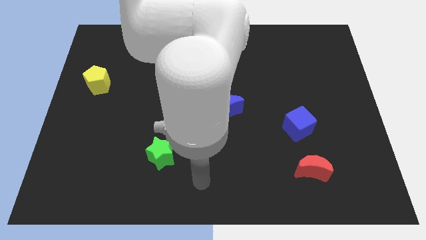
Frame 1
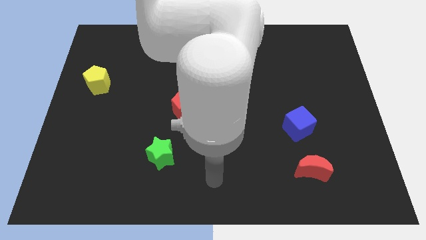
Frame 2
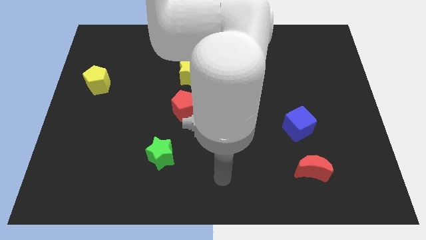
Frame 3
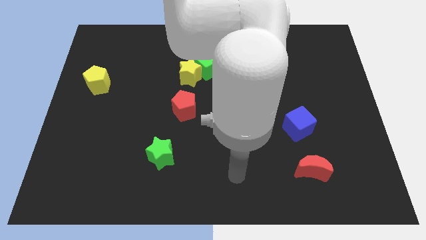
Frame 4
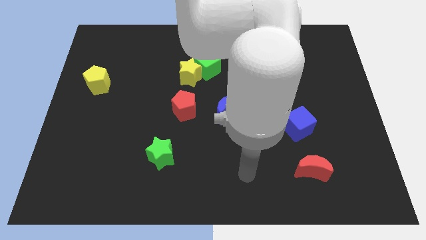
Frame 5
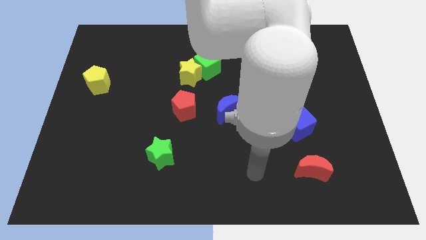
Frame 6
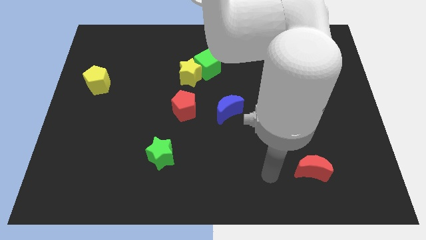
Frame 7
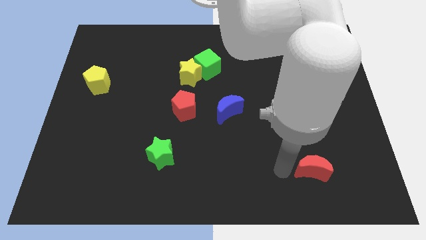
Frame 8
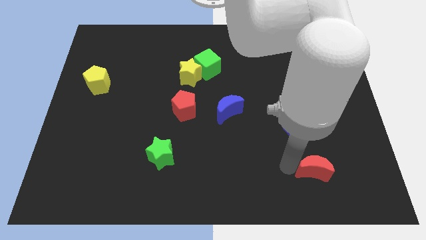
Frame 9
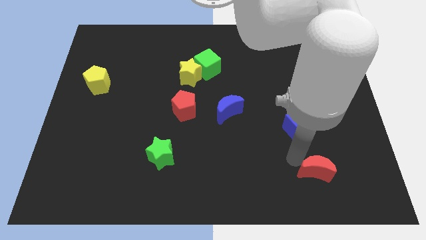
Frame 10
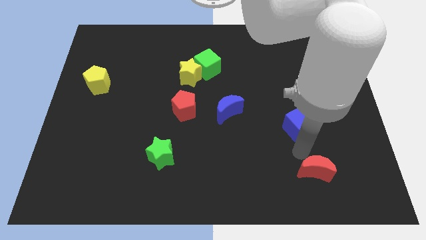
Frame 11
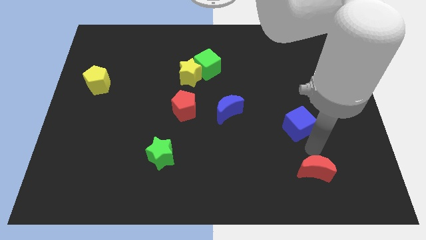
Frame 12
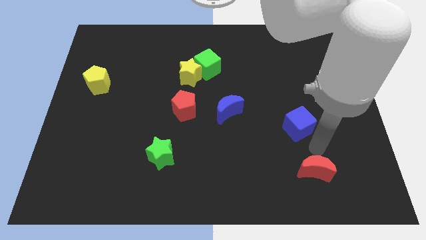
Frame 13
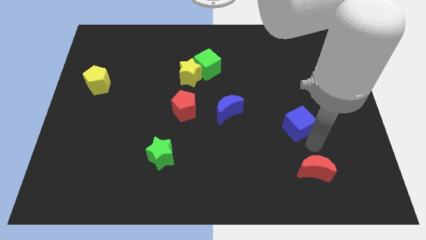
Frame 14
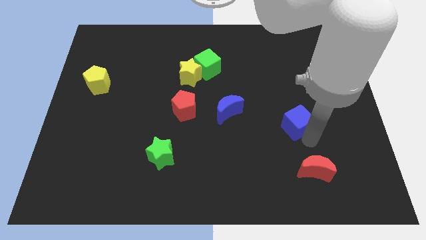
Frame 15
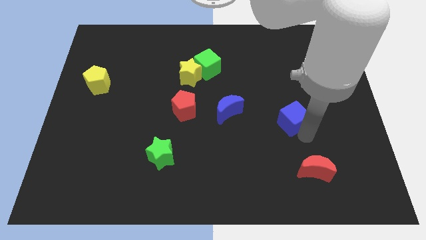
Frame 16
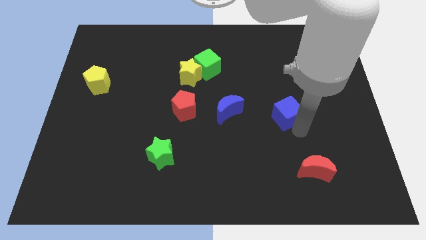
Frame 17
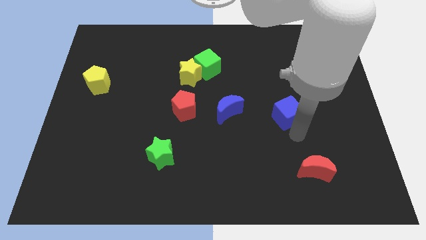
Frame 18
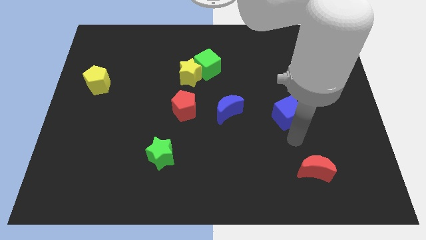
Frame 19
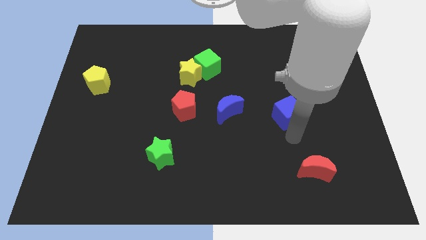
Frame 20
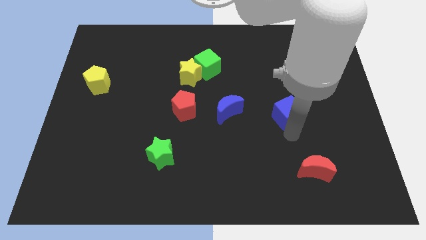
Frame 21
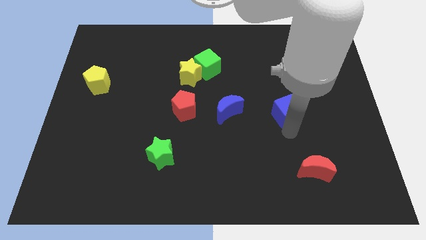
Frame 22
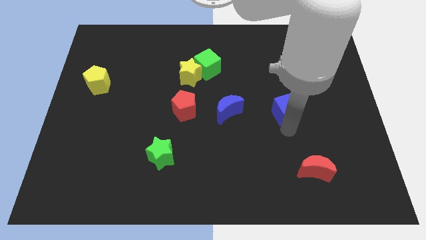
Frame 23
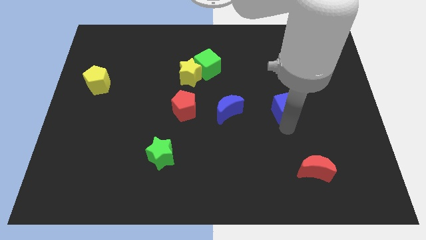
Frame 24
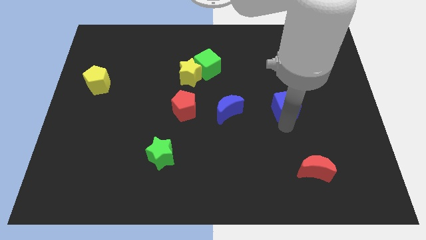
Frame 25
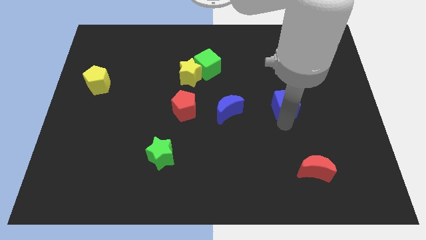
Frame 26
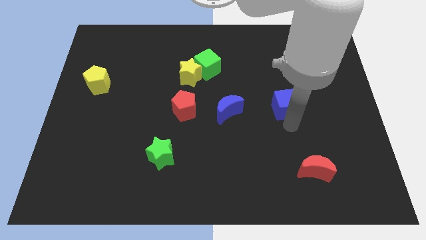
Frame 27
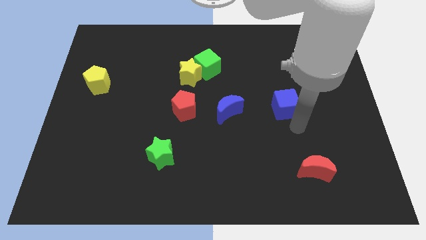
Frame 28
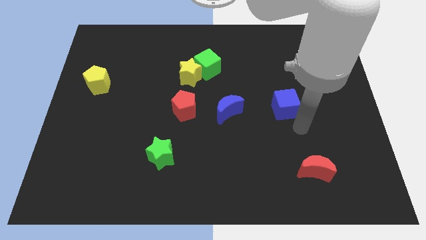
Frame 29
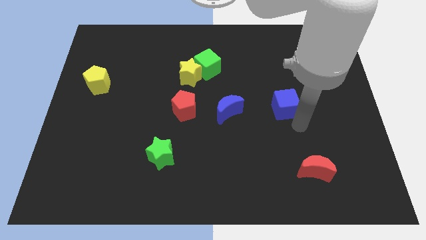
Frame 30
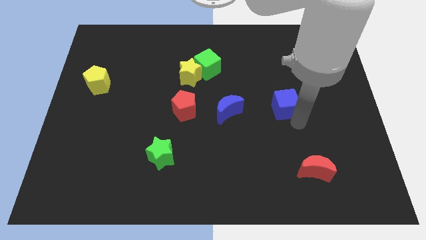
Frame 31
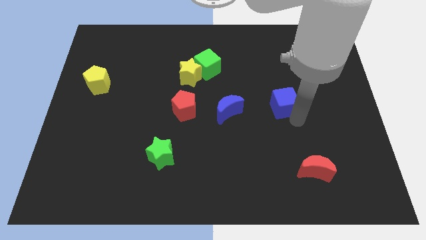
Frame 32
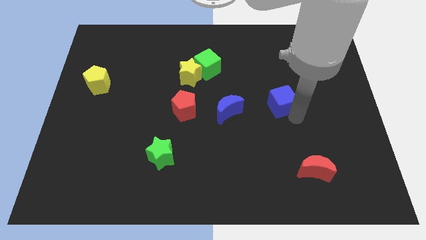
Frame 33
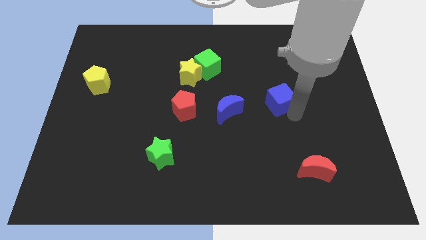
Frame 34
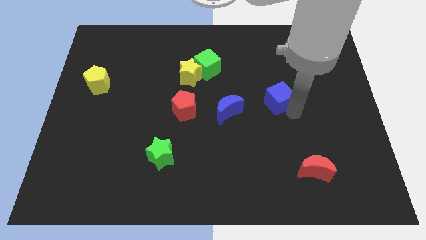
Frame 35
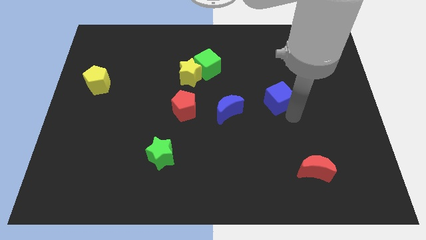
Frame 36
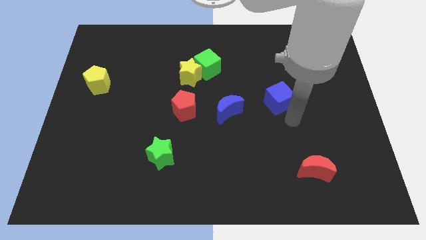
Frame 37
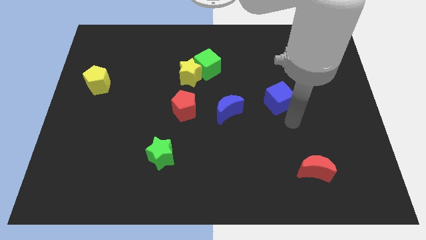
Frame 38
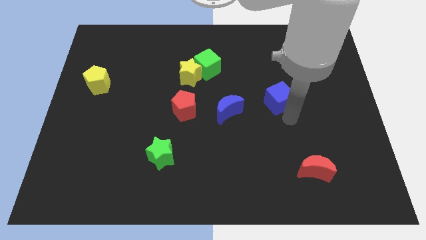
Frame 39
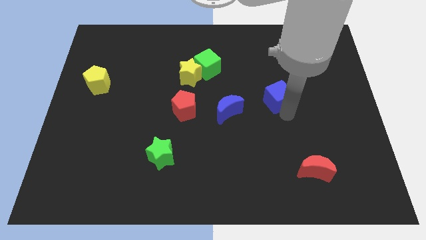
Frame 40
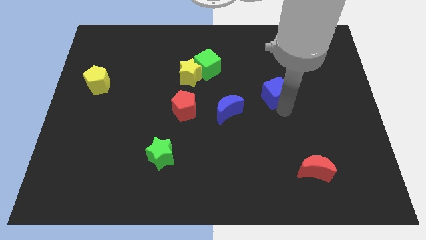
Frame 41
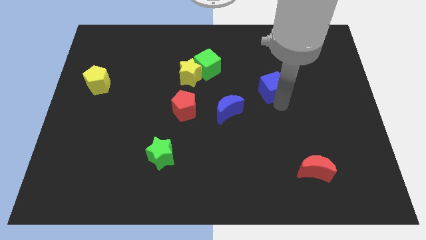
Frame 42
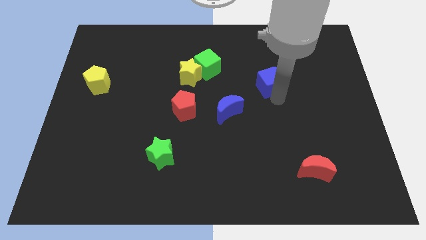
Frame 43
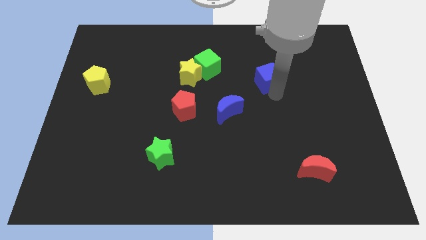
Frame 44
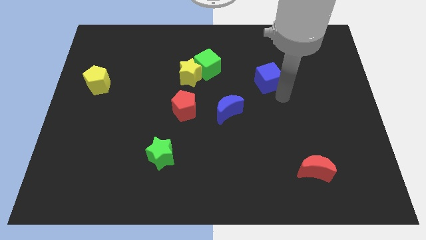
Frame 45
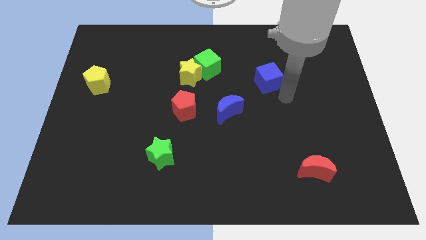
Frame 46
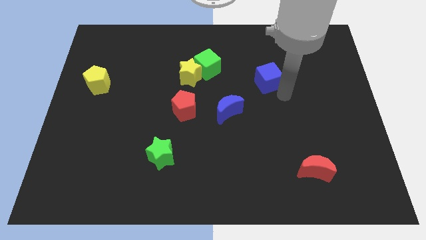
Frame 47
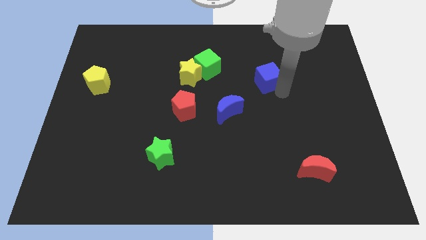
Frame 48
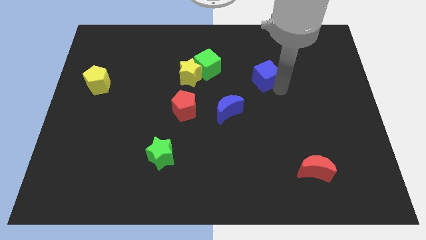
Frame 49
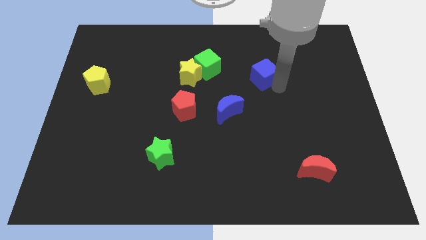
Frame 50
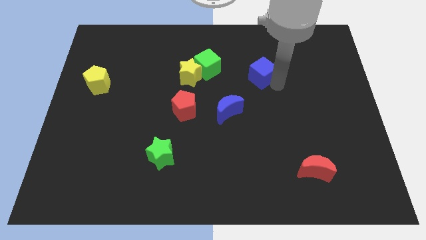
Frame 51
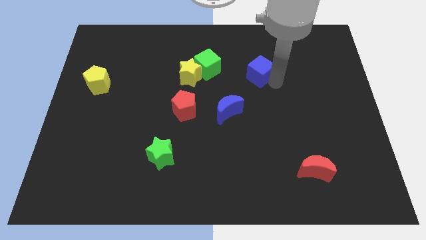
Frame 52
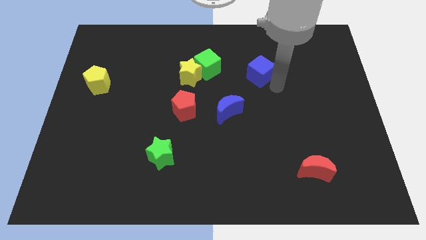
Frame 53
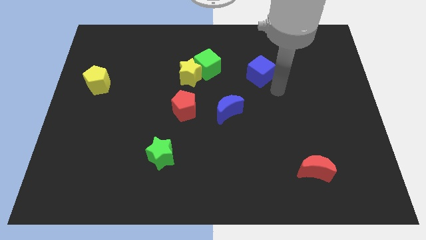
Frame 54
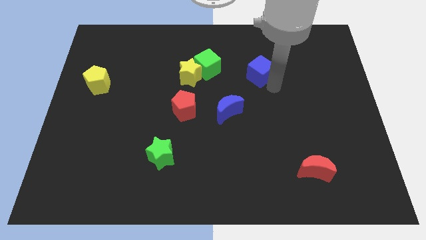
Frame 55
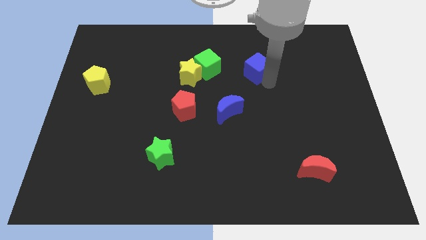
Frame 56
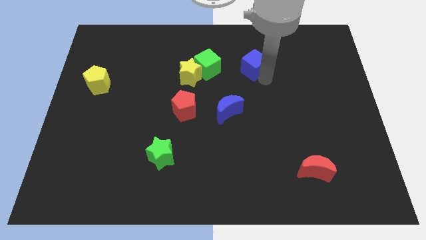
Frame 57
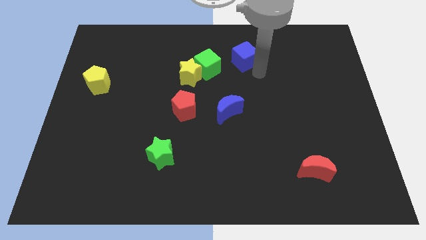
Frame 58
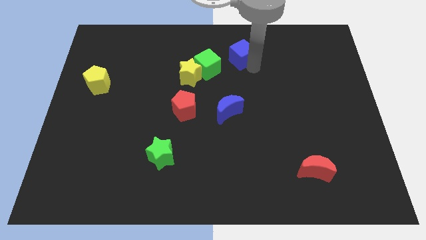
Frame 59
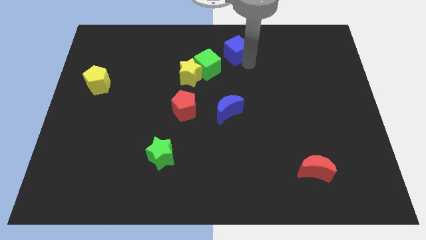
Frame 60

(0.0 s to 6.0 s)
slide the blue cube to the top side

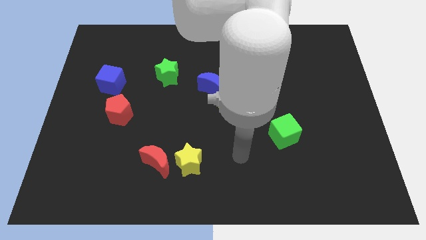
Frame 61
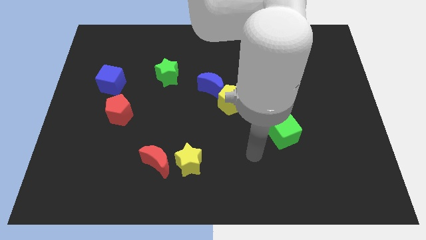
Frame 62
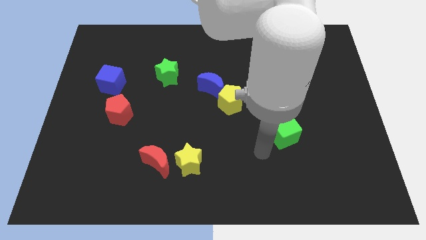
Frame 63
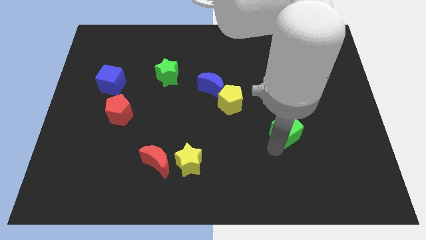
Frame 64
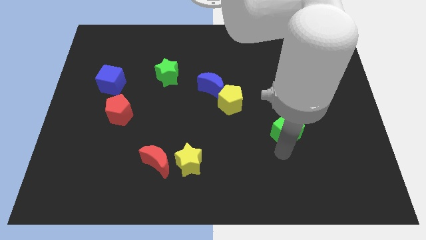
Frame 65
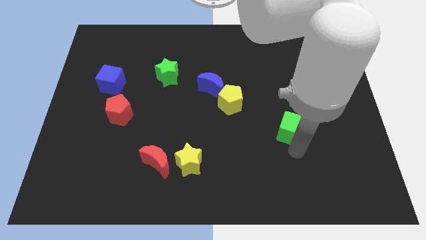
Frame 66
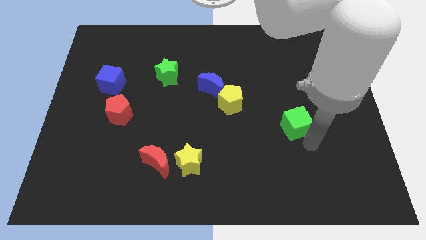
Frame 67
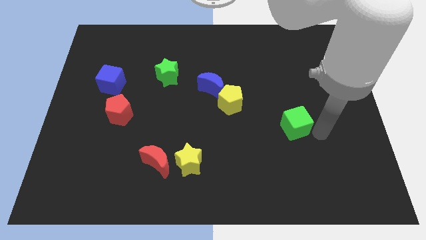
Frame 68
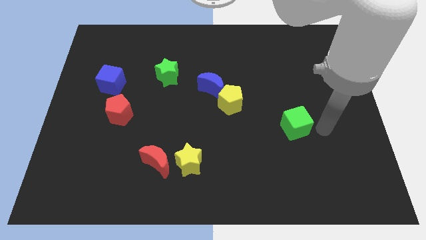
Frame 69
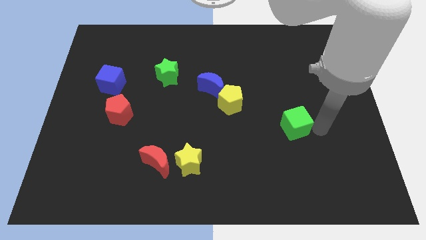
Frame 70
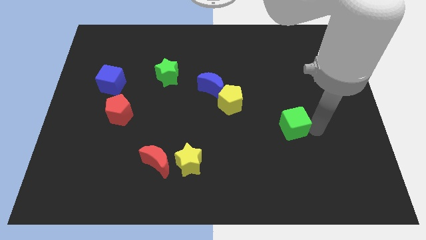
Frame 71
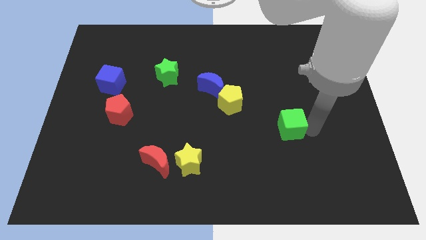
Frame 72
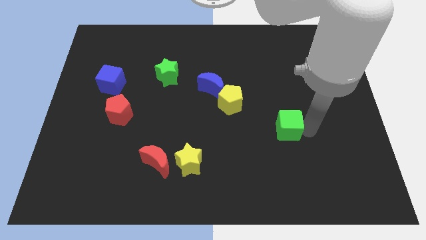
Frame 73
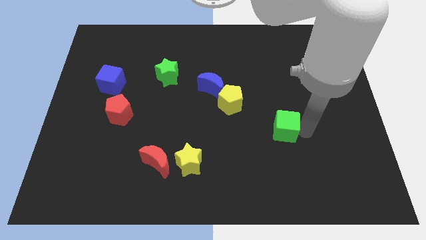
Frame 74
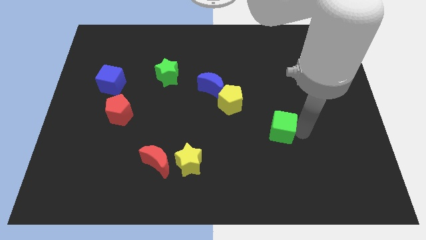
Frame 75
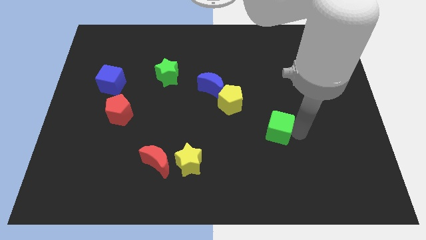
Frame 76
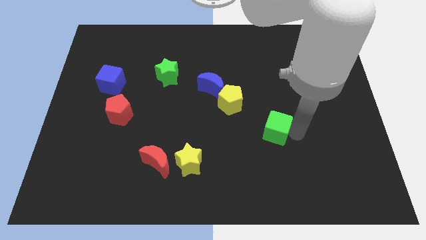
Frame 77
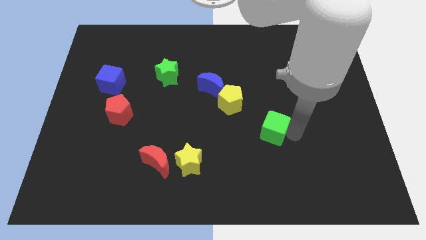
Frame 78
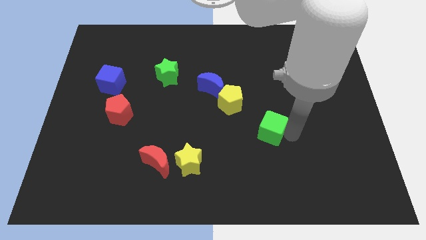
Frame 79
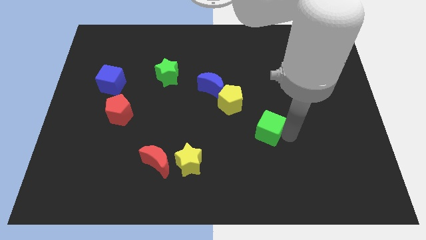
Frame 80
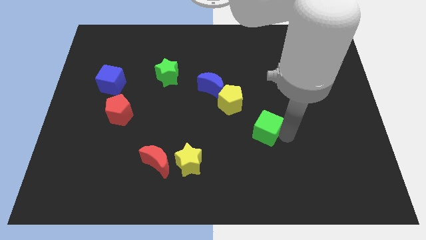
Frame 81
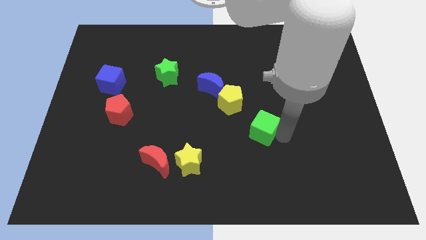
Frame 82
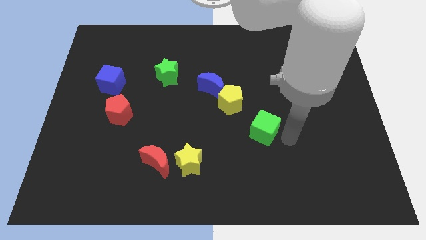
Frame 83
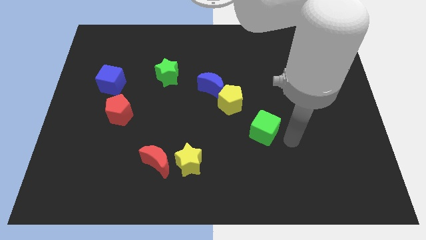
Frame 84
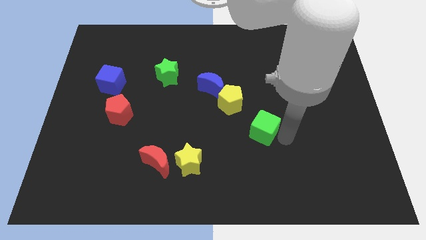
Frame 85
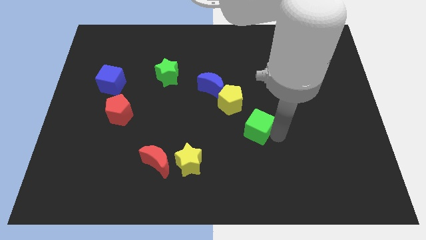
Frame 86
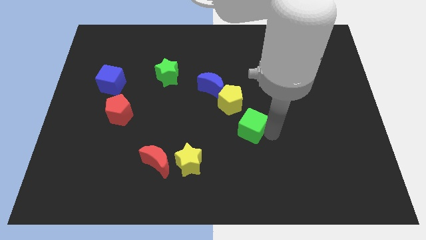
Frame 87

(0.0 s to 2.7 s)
push the green cube to the middle
